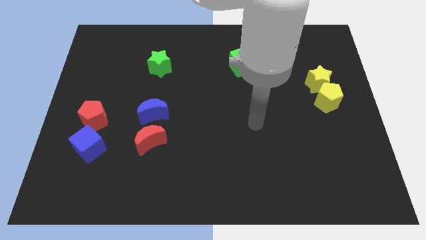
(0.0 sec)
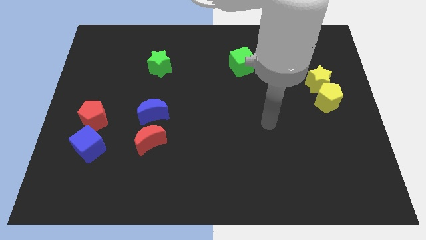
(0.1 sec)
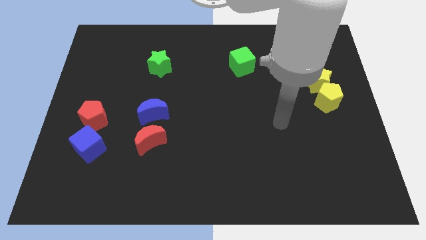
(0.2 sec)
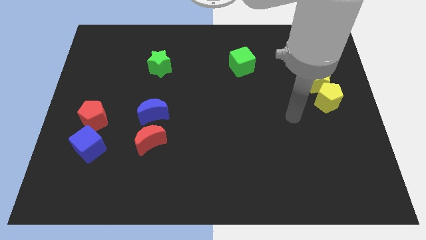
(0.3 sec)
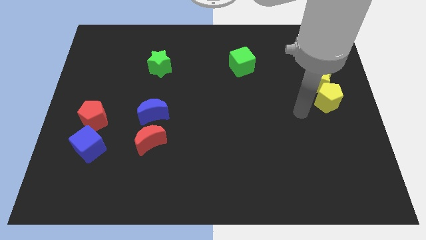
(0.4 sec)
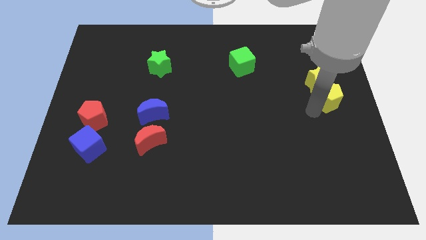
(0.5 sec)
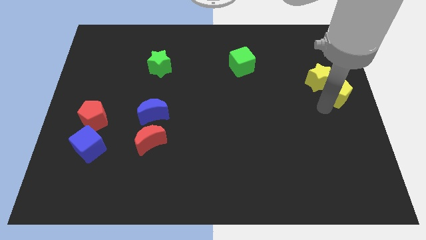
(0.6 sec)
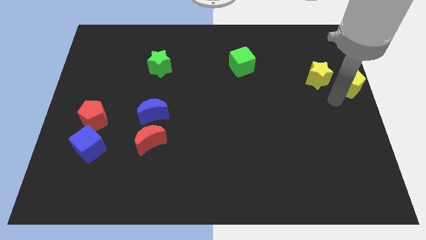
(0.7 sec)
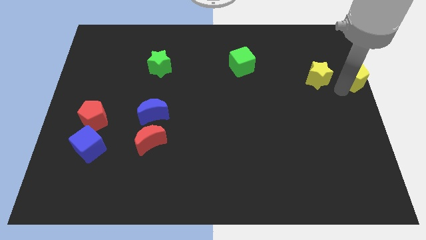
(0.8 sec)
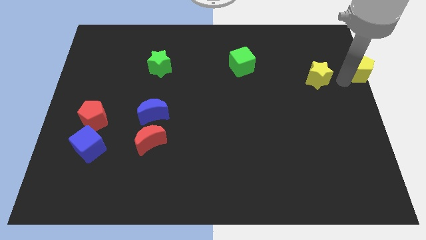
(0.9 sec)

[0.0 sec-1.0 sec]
separate the yellow star from the yellow pentagon

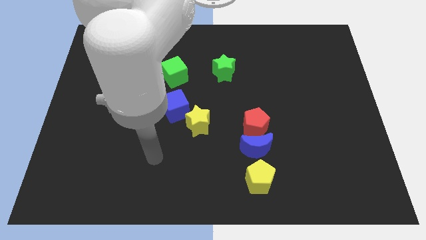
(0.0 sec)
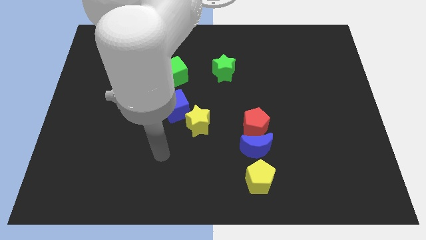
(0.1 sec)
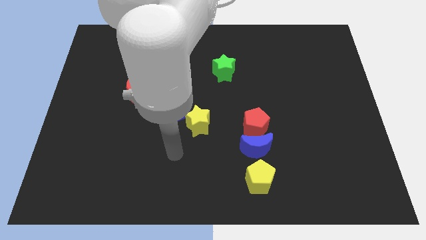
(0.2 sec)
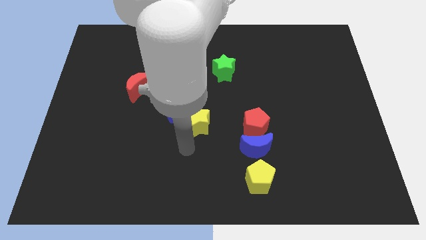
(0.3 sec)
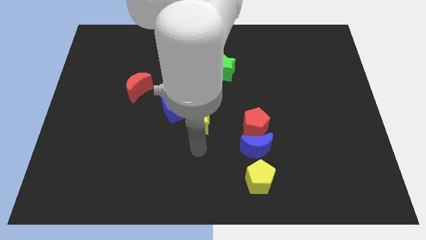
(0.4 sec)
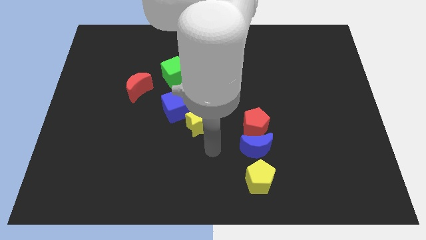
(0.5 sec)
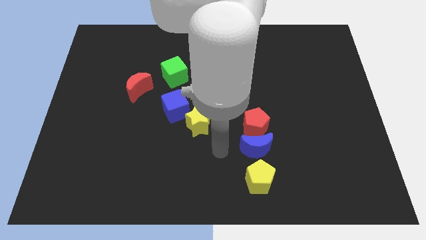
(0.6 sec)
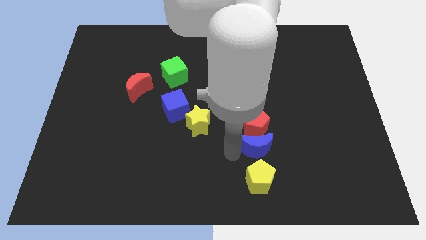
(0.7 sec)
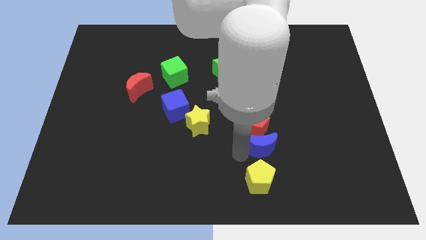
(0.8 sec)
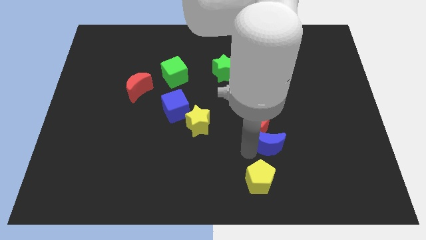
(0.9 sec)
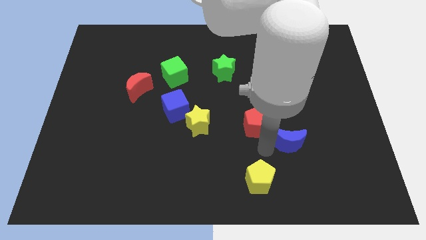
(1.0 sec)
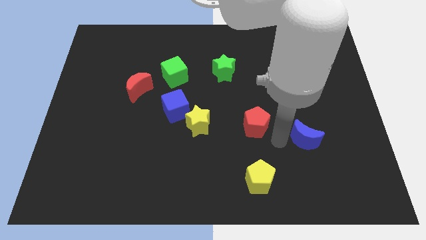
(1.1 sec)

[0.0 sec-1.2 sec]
separate the red pentagon from the blue moon

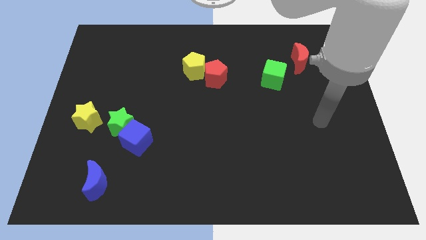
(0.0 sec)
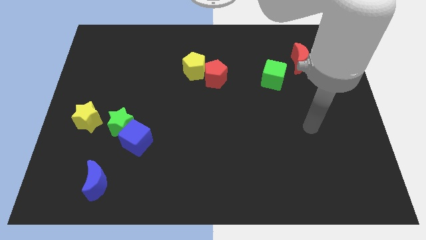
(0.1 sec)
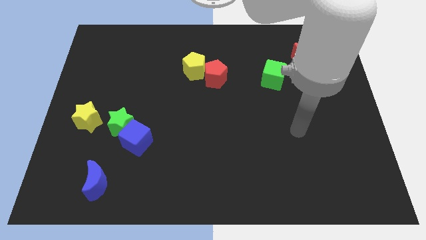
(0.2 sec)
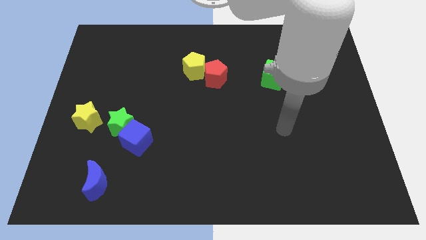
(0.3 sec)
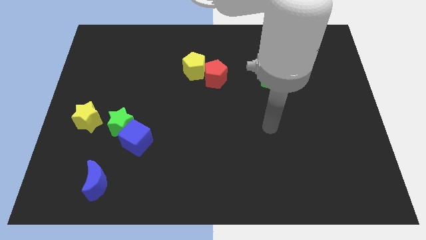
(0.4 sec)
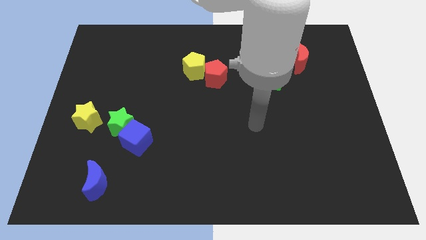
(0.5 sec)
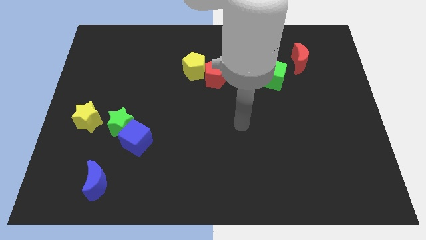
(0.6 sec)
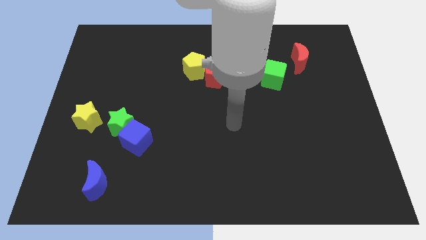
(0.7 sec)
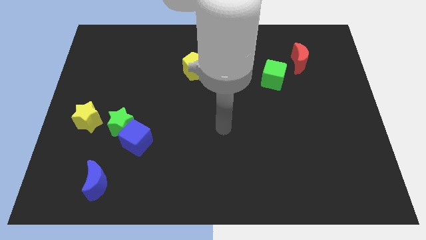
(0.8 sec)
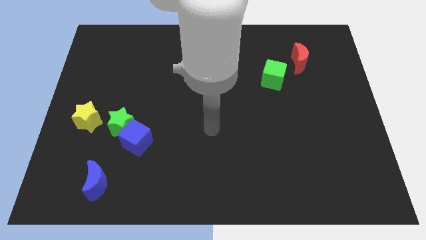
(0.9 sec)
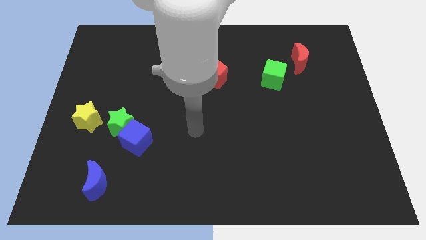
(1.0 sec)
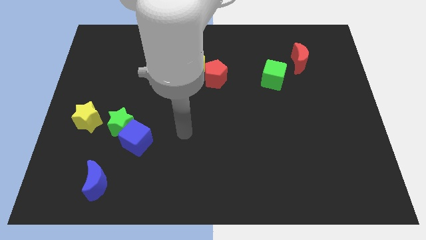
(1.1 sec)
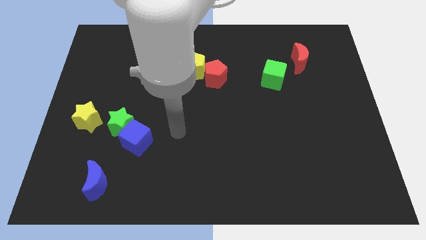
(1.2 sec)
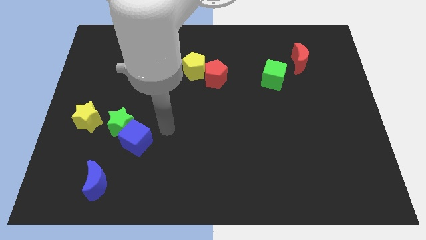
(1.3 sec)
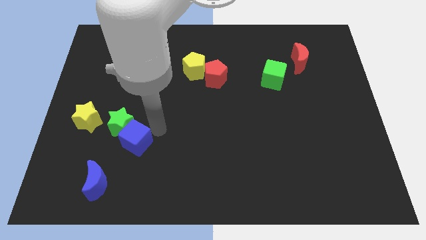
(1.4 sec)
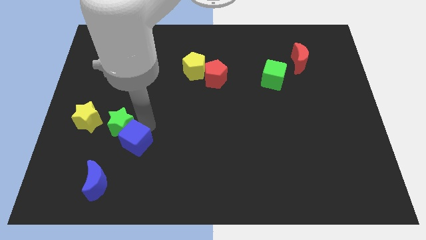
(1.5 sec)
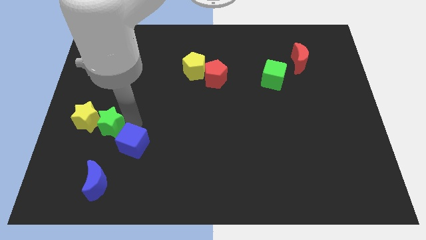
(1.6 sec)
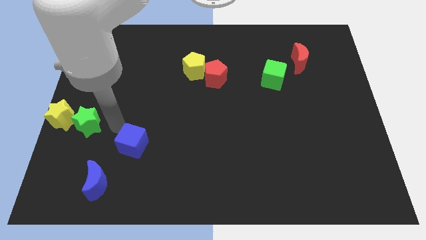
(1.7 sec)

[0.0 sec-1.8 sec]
move the blue cube away from the green star

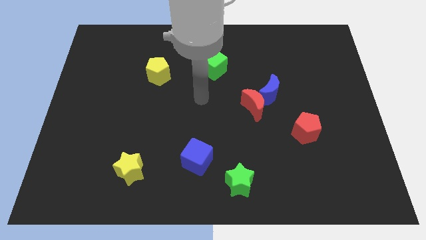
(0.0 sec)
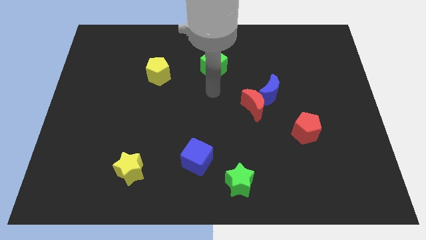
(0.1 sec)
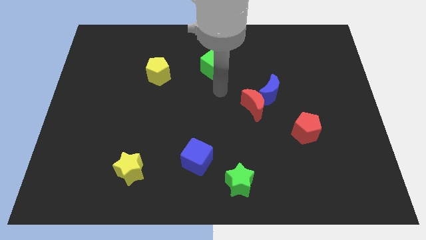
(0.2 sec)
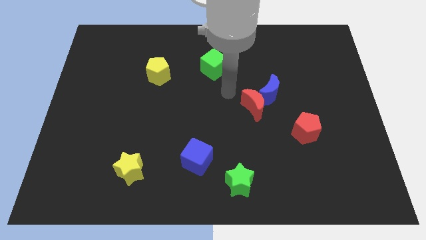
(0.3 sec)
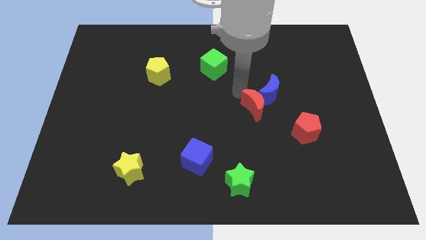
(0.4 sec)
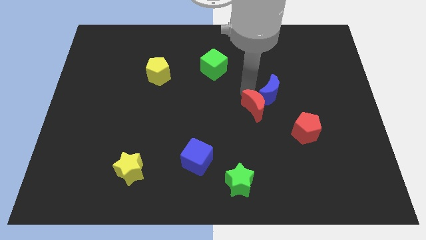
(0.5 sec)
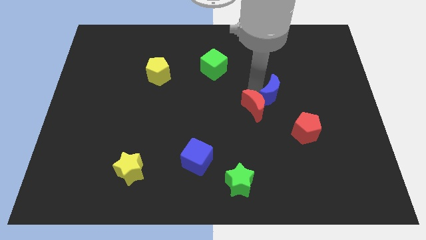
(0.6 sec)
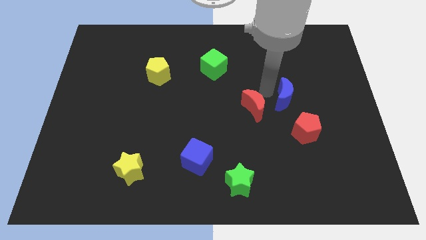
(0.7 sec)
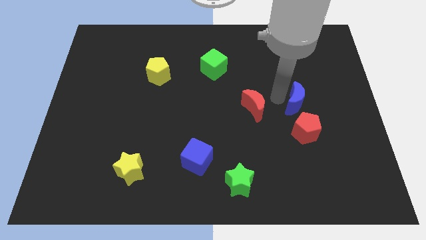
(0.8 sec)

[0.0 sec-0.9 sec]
move the red moon away from the blue moon

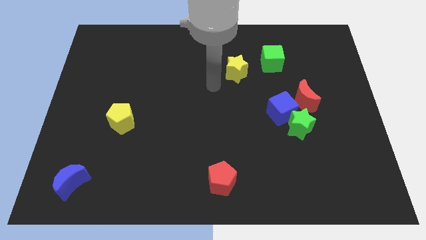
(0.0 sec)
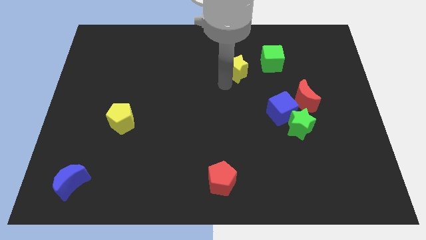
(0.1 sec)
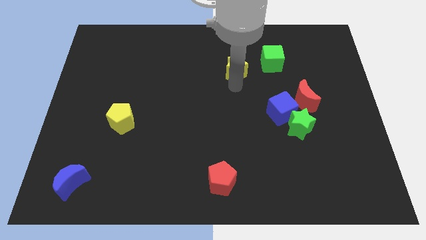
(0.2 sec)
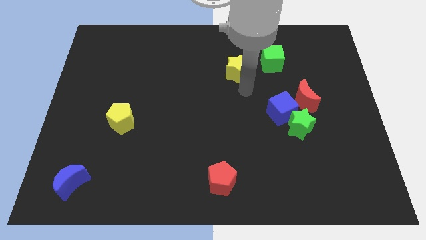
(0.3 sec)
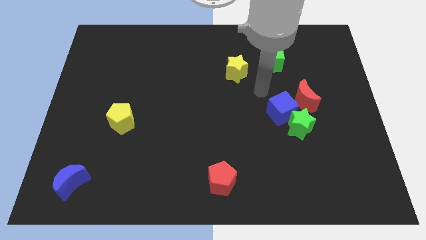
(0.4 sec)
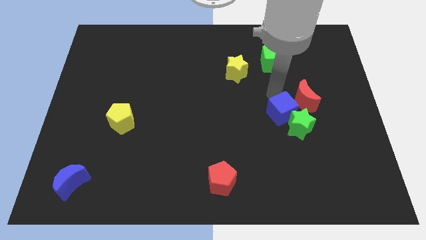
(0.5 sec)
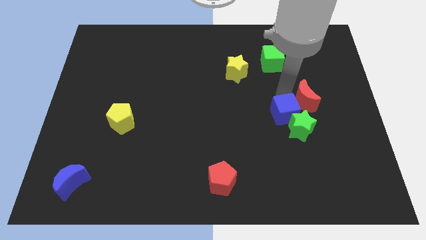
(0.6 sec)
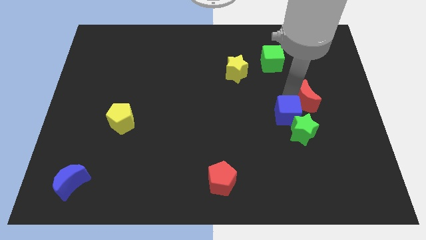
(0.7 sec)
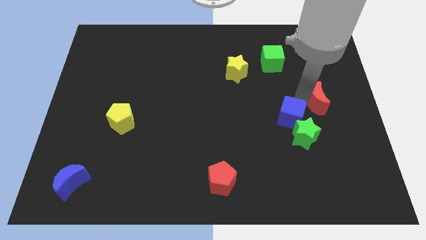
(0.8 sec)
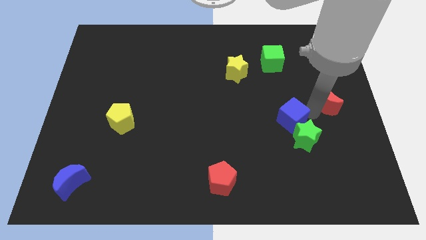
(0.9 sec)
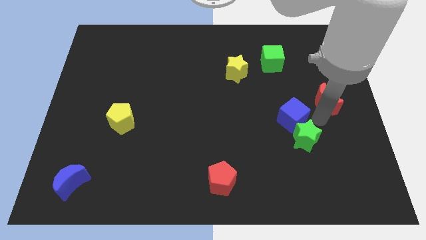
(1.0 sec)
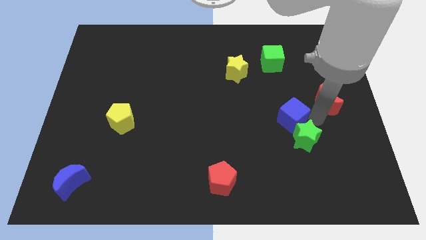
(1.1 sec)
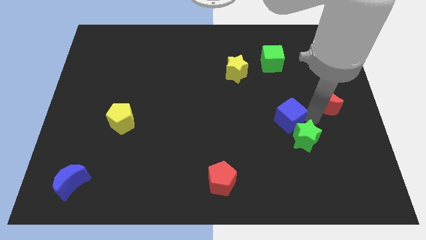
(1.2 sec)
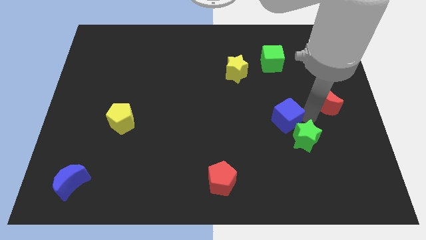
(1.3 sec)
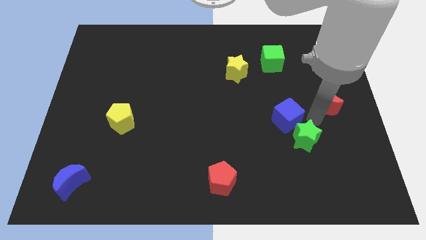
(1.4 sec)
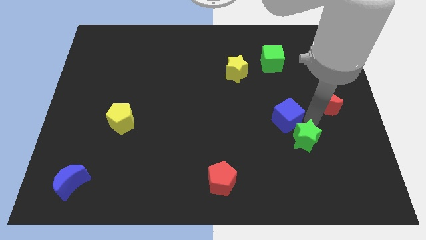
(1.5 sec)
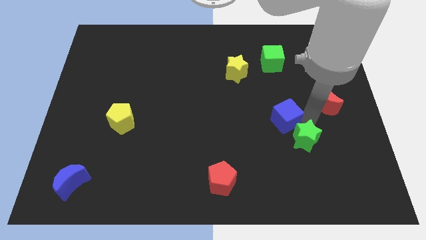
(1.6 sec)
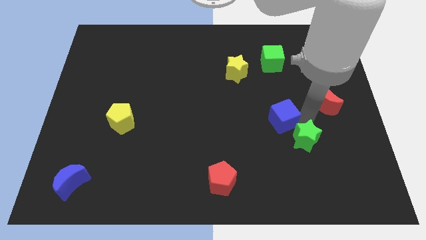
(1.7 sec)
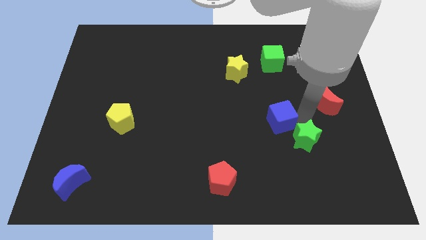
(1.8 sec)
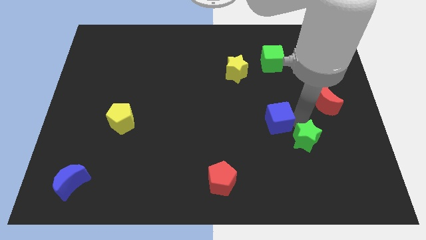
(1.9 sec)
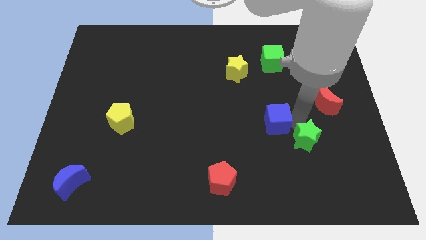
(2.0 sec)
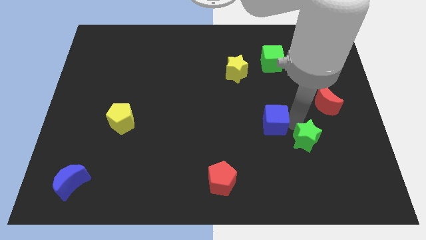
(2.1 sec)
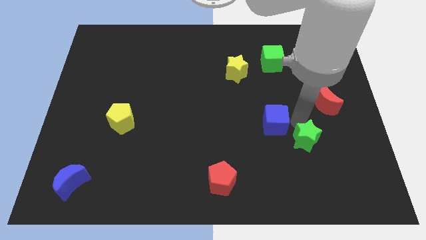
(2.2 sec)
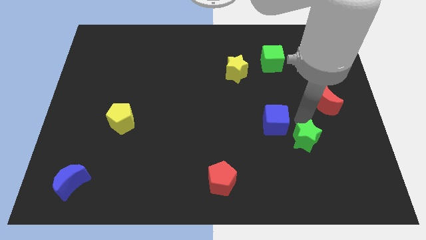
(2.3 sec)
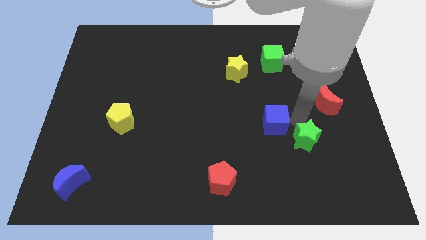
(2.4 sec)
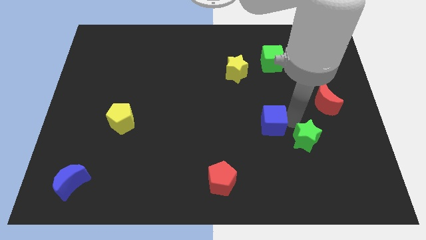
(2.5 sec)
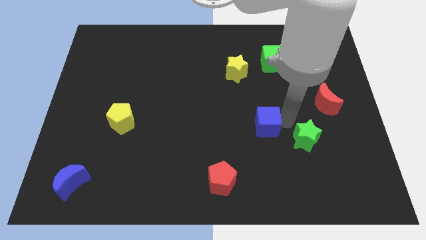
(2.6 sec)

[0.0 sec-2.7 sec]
separate the blue cube from the green star and red moon

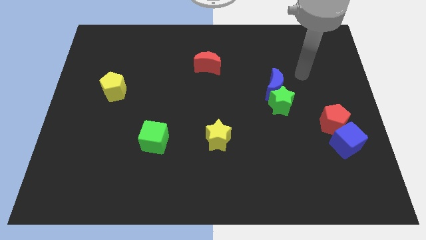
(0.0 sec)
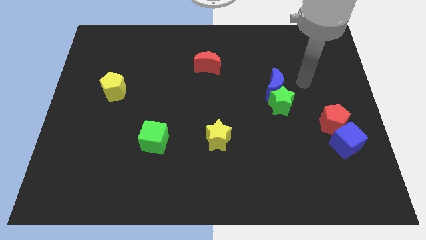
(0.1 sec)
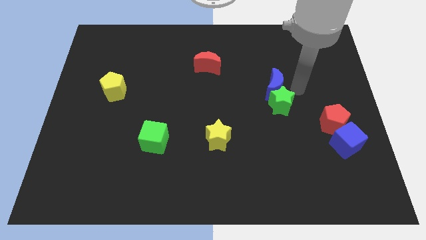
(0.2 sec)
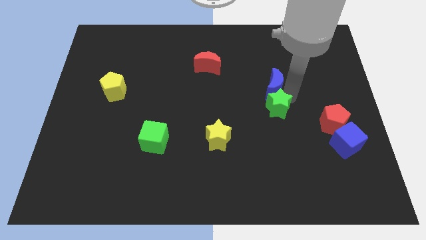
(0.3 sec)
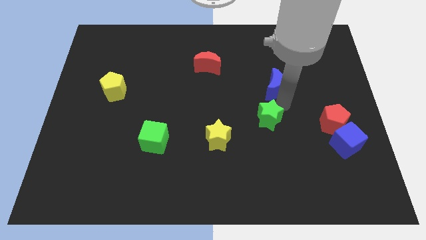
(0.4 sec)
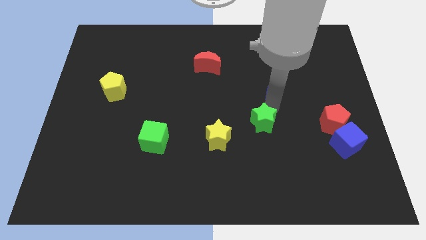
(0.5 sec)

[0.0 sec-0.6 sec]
move the blue moon away from the green star

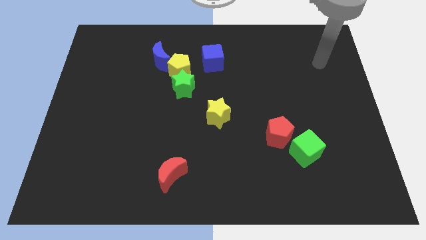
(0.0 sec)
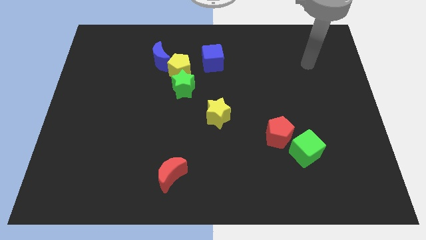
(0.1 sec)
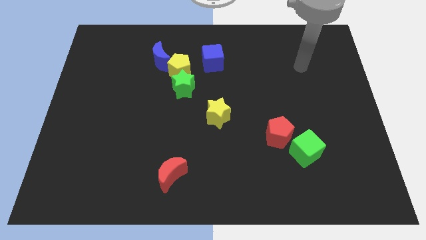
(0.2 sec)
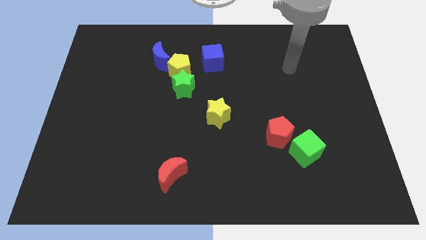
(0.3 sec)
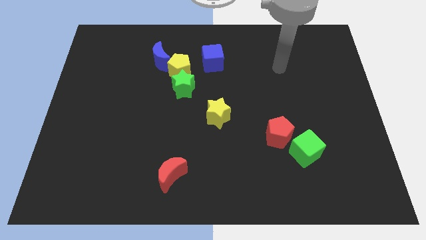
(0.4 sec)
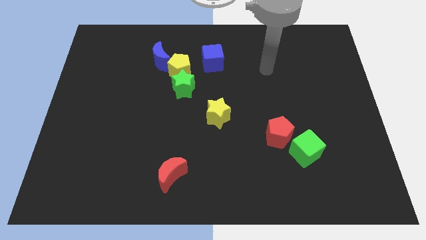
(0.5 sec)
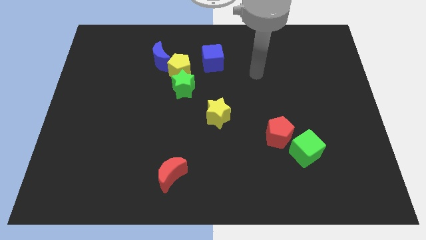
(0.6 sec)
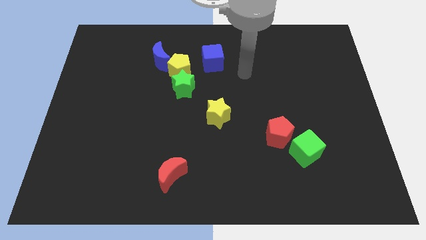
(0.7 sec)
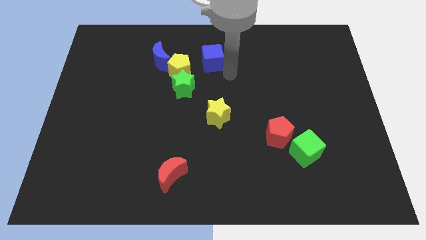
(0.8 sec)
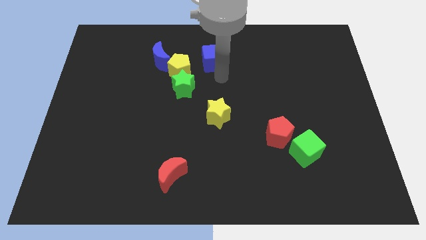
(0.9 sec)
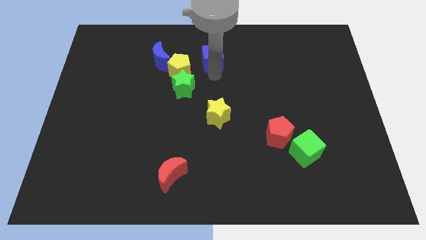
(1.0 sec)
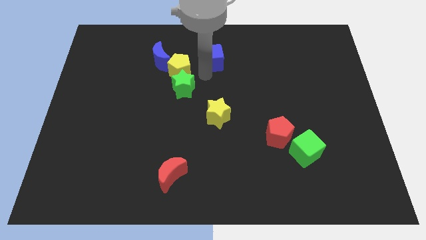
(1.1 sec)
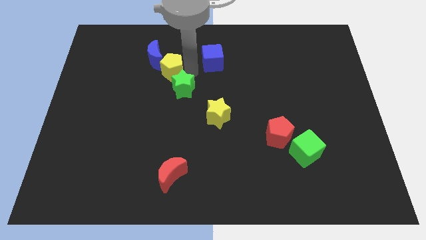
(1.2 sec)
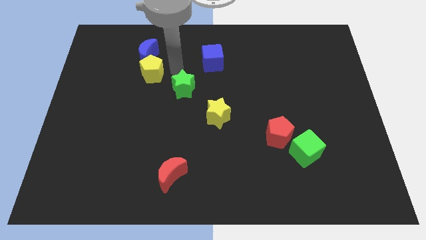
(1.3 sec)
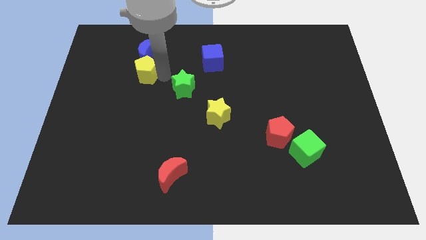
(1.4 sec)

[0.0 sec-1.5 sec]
pull the green star apart from the yellow pentagon
